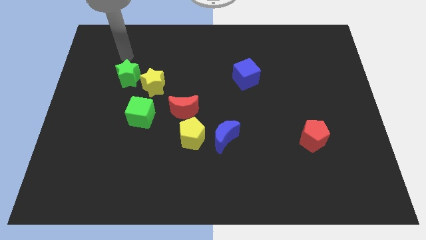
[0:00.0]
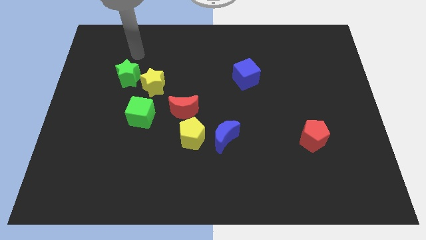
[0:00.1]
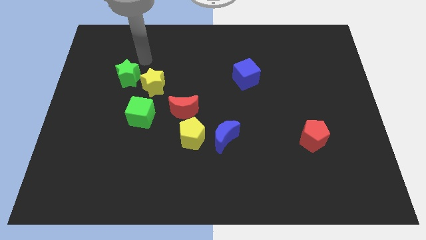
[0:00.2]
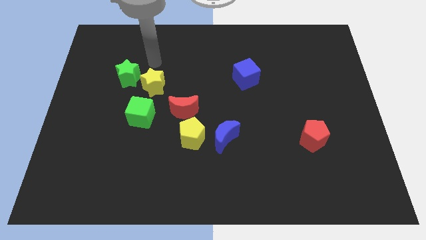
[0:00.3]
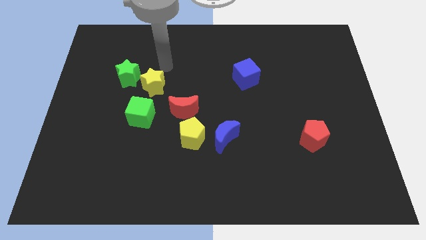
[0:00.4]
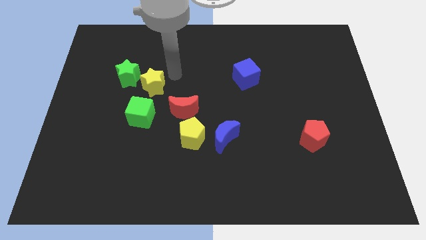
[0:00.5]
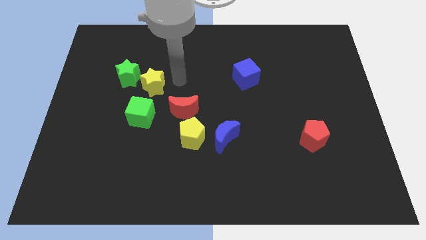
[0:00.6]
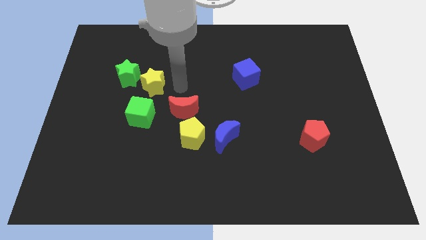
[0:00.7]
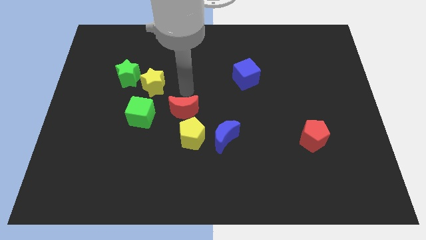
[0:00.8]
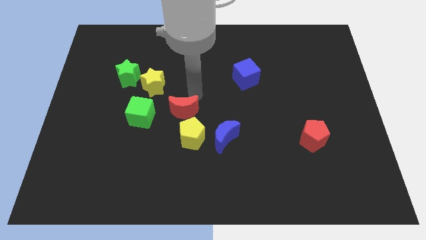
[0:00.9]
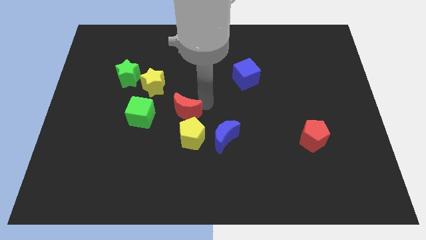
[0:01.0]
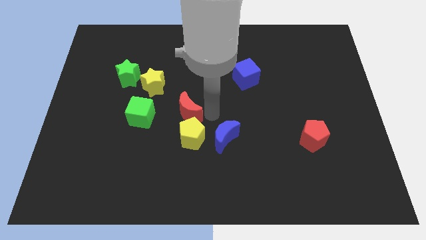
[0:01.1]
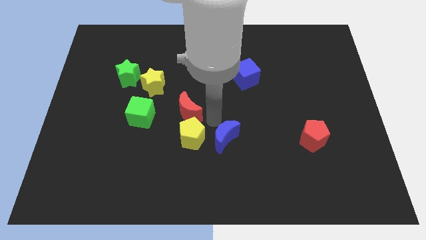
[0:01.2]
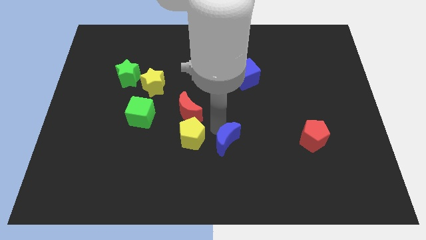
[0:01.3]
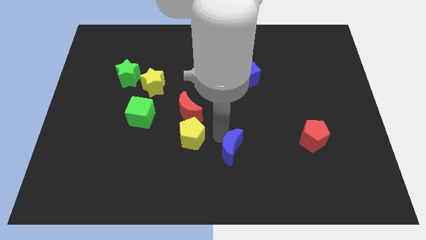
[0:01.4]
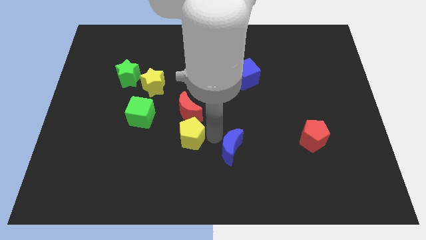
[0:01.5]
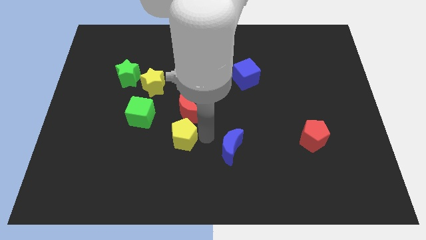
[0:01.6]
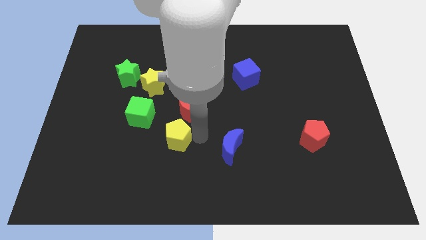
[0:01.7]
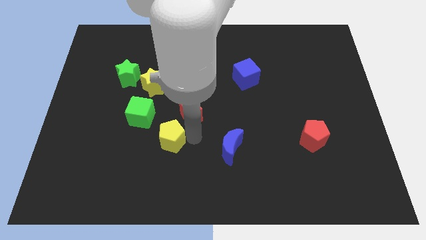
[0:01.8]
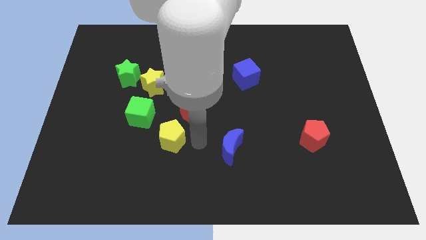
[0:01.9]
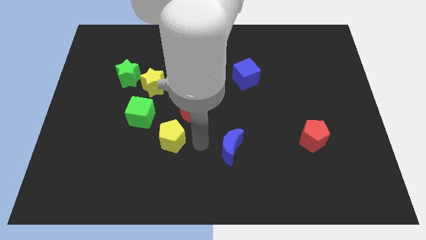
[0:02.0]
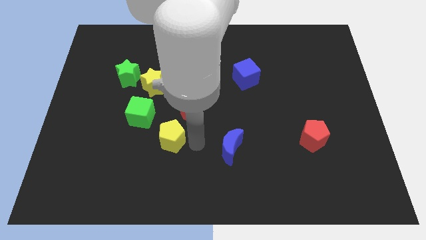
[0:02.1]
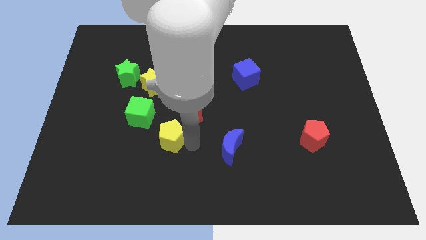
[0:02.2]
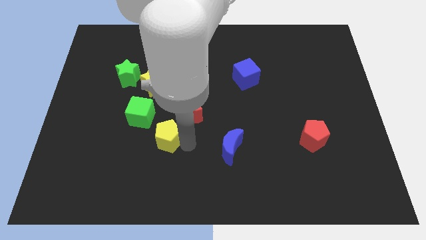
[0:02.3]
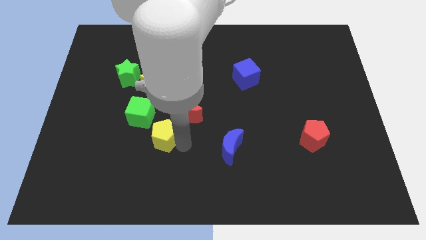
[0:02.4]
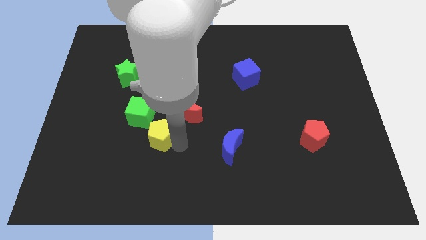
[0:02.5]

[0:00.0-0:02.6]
push the yellow pentagon to the left a little

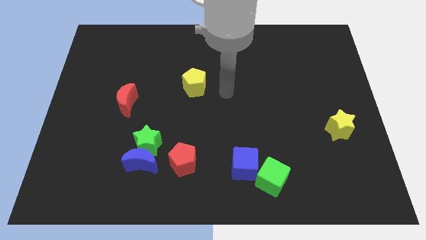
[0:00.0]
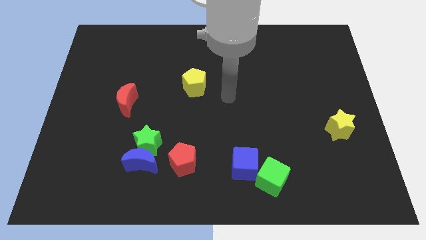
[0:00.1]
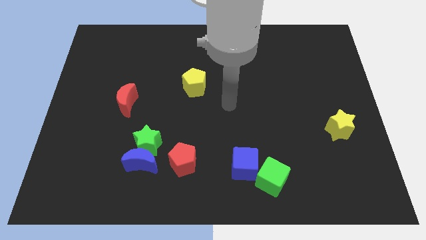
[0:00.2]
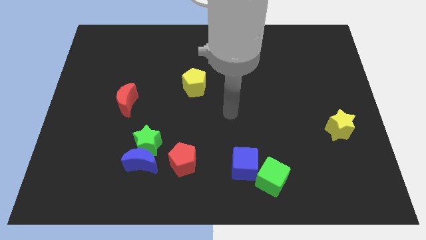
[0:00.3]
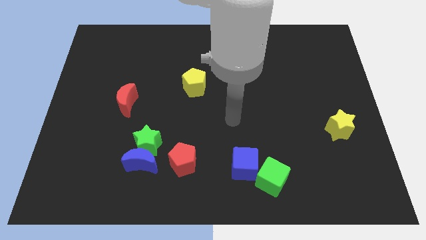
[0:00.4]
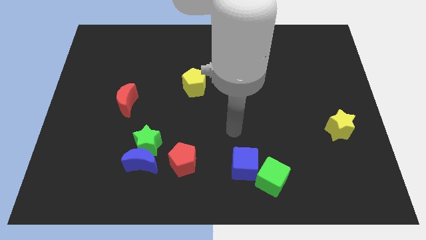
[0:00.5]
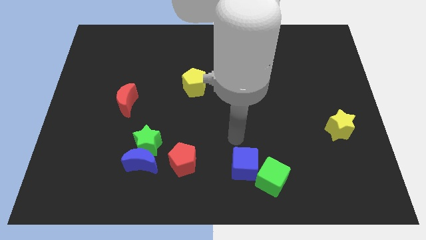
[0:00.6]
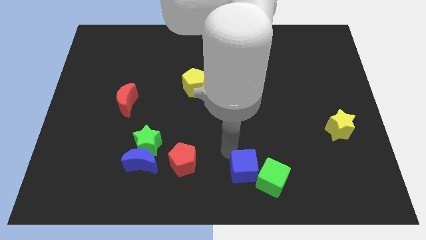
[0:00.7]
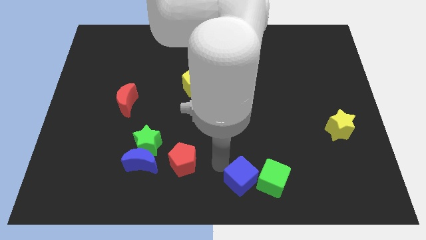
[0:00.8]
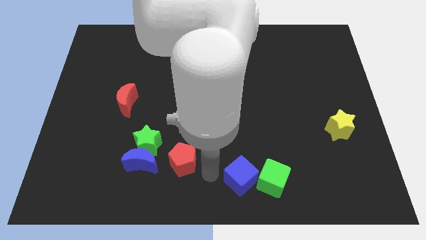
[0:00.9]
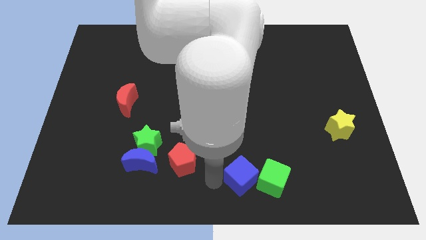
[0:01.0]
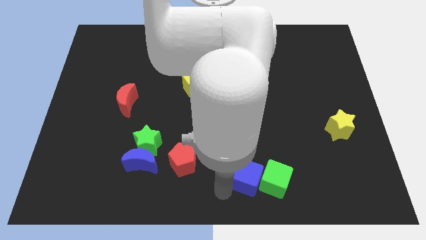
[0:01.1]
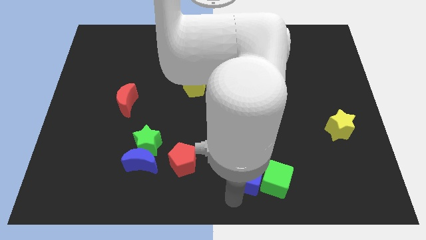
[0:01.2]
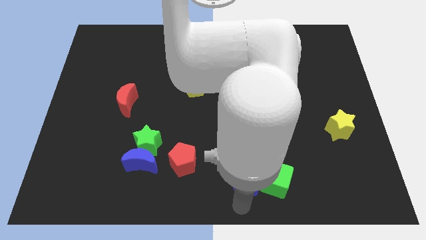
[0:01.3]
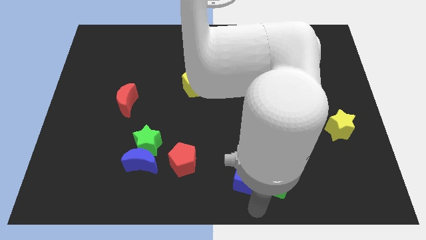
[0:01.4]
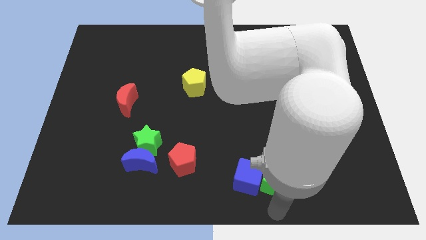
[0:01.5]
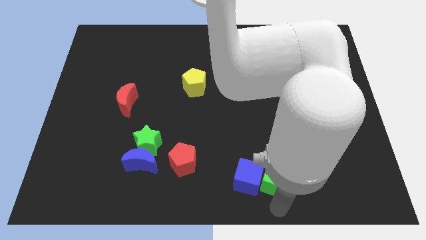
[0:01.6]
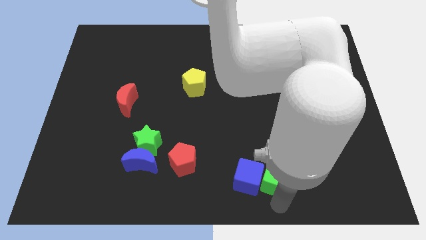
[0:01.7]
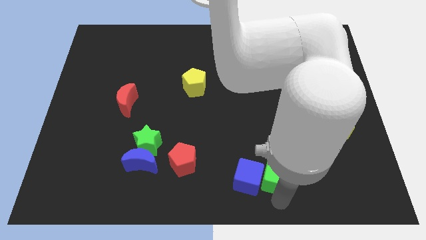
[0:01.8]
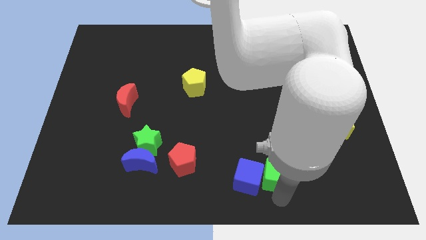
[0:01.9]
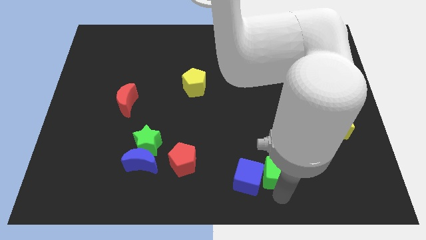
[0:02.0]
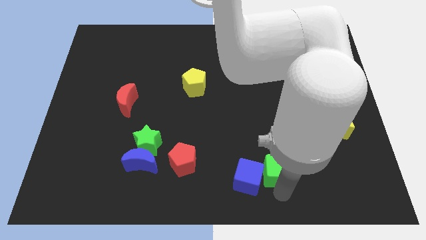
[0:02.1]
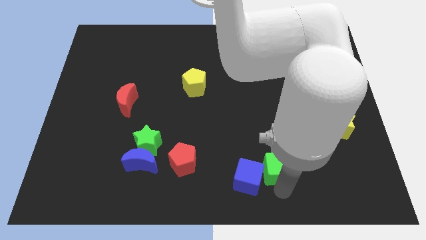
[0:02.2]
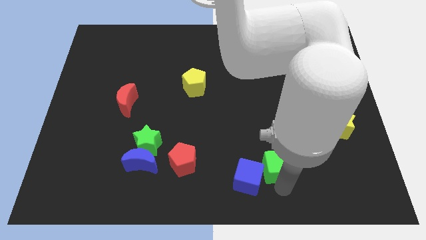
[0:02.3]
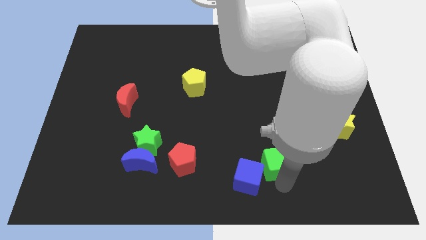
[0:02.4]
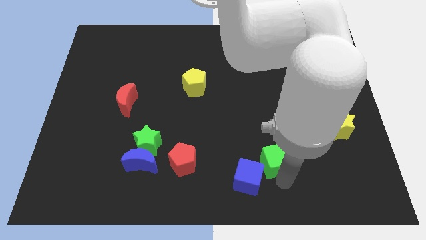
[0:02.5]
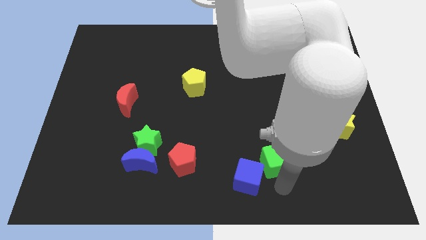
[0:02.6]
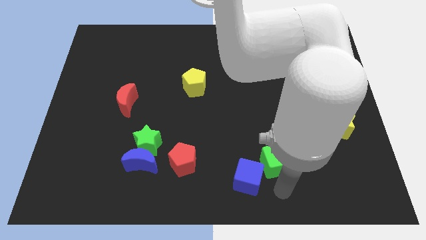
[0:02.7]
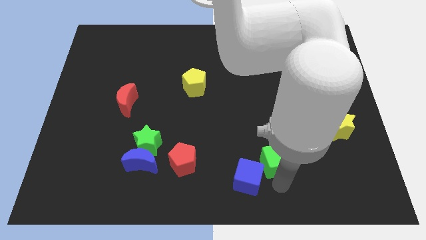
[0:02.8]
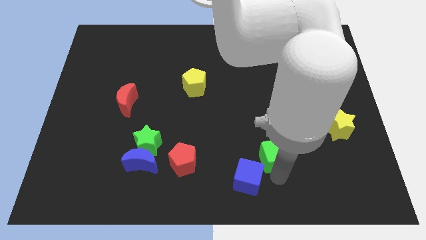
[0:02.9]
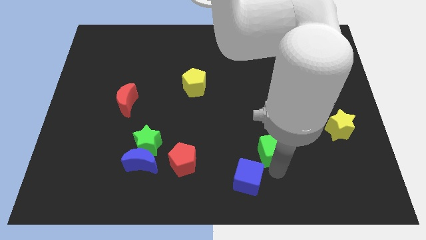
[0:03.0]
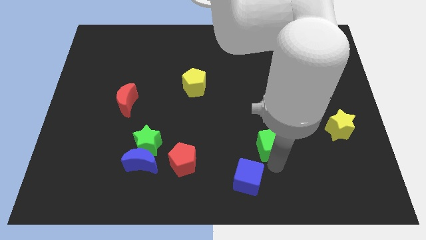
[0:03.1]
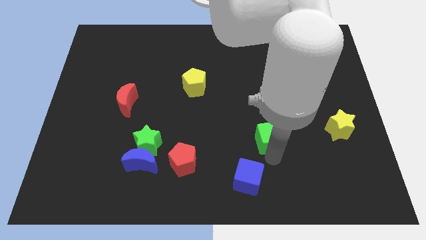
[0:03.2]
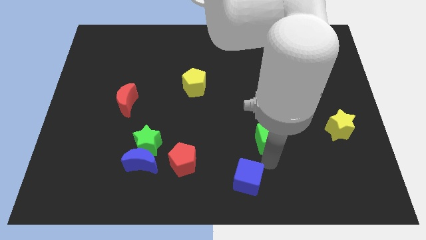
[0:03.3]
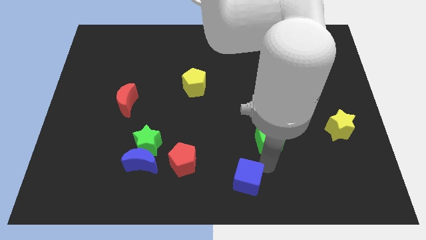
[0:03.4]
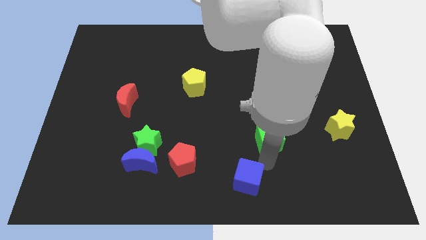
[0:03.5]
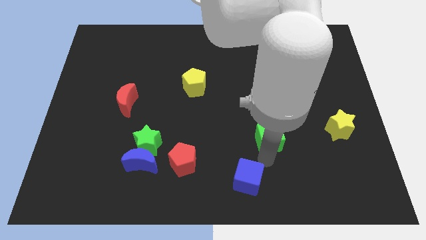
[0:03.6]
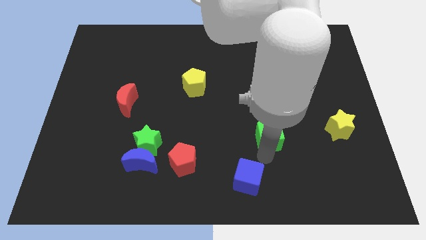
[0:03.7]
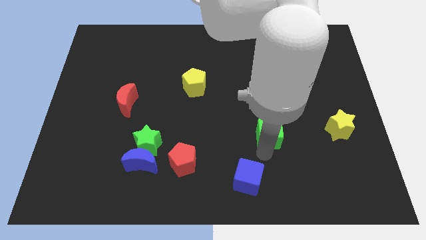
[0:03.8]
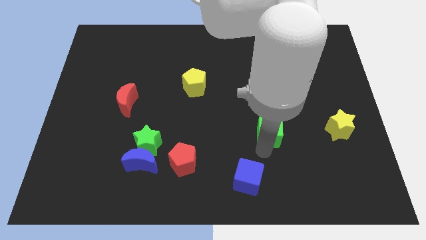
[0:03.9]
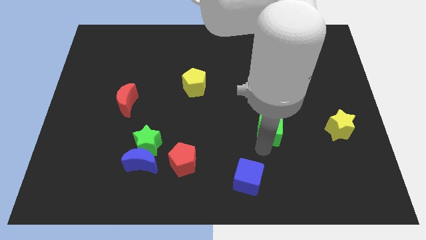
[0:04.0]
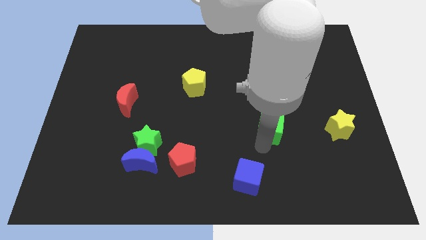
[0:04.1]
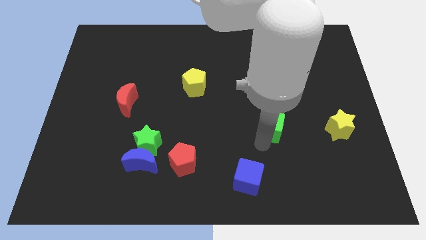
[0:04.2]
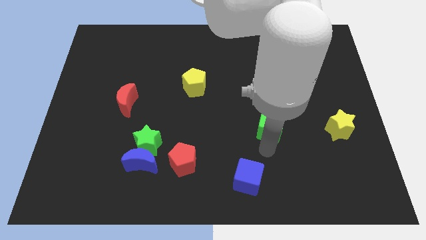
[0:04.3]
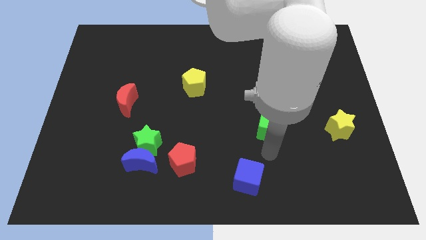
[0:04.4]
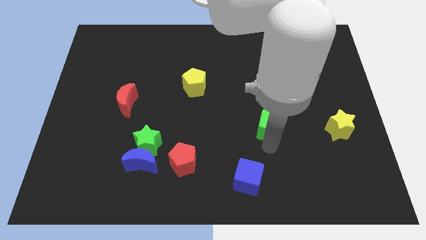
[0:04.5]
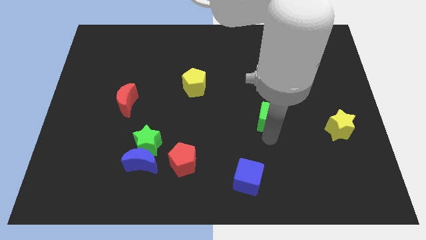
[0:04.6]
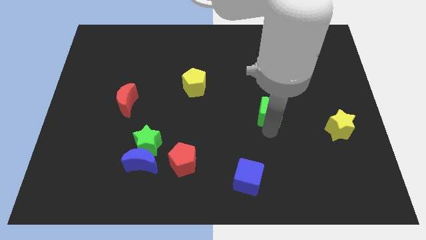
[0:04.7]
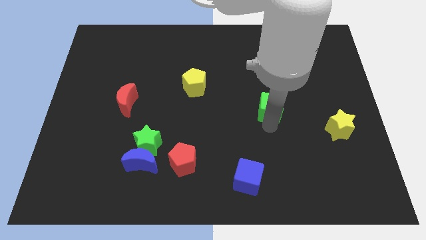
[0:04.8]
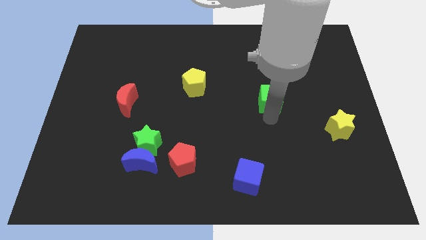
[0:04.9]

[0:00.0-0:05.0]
push the green cube up

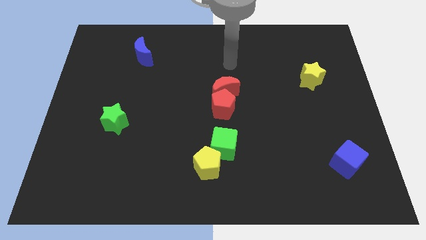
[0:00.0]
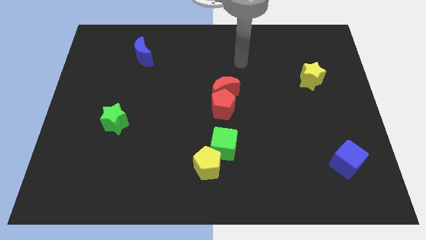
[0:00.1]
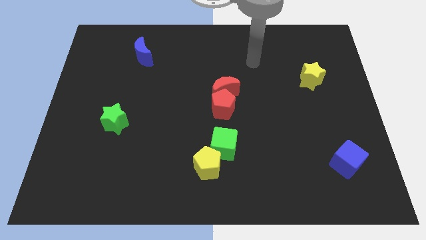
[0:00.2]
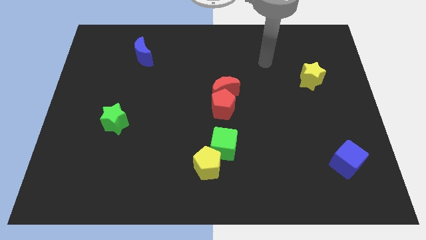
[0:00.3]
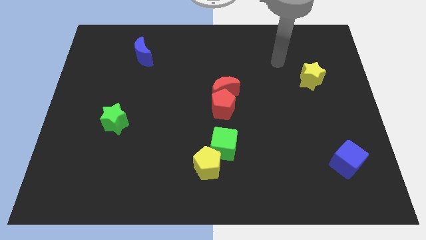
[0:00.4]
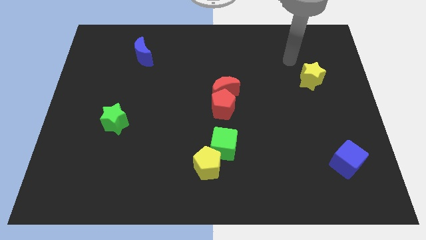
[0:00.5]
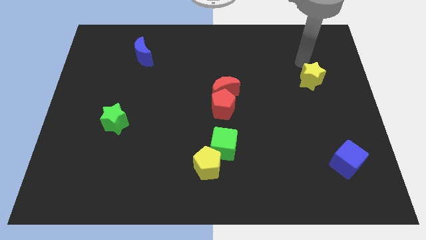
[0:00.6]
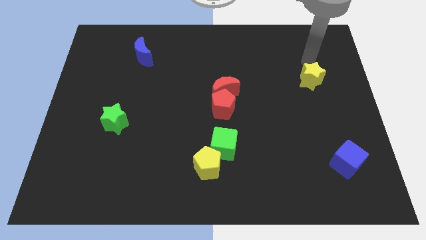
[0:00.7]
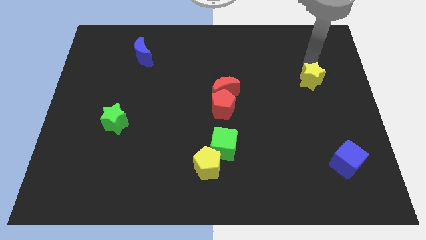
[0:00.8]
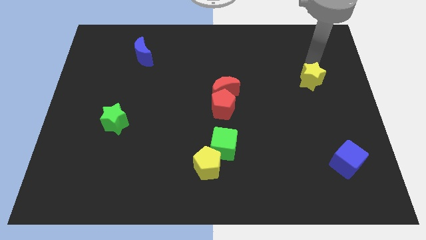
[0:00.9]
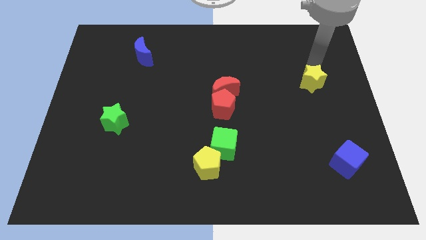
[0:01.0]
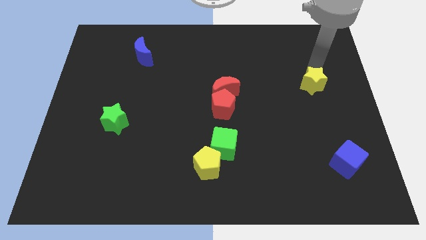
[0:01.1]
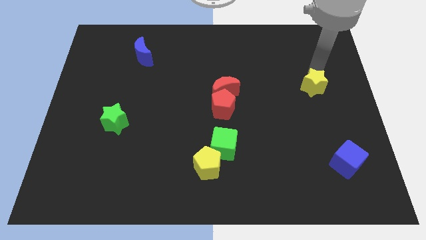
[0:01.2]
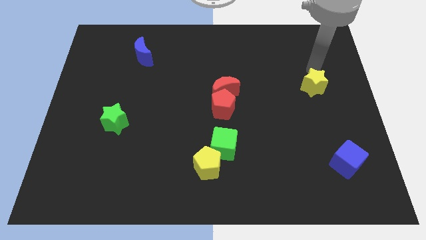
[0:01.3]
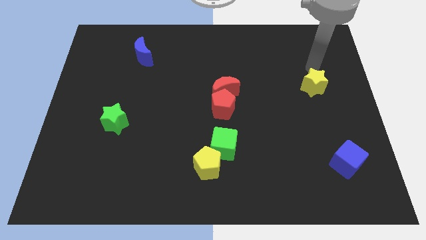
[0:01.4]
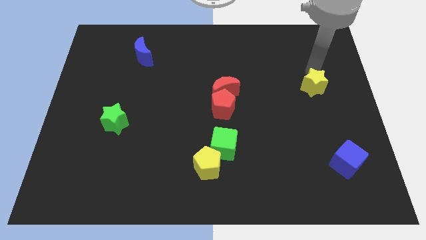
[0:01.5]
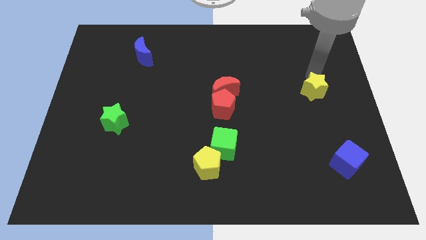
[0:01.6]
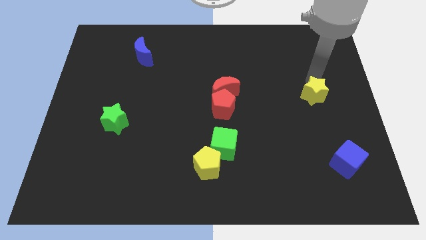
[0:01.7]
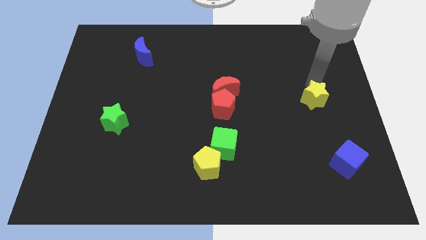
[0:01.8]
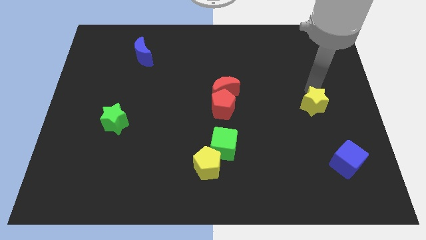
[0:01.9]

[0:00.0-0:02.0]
slide the yellow star downwards a bit
